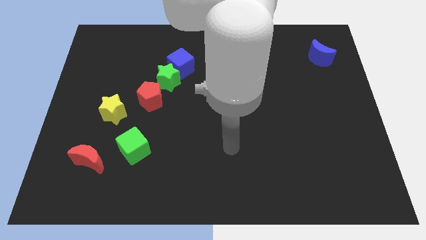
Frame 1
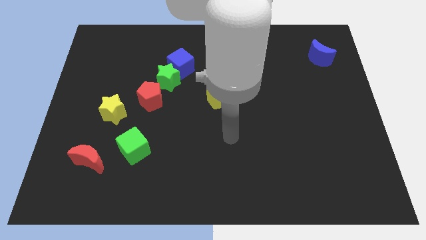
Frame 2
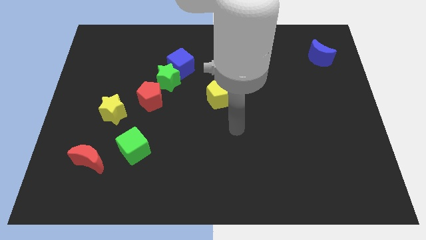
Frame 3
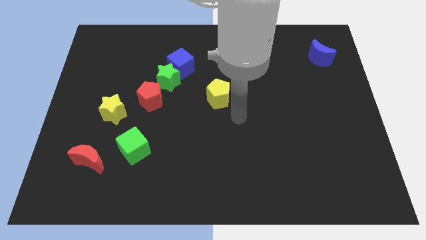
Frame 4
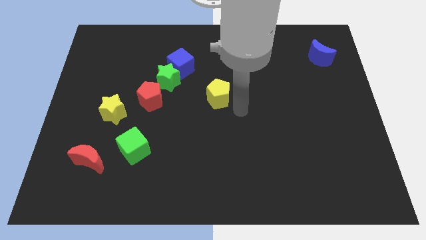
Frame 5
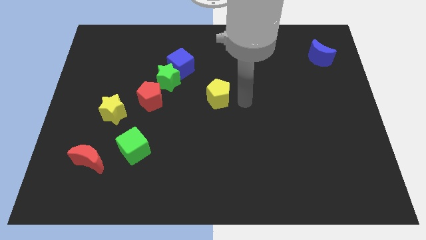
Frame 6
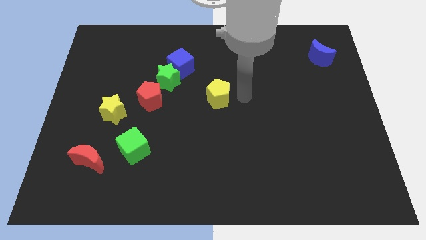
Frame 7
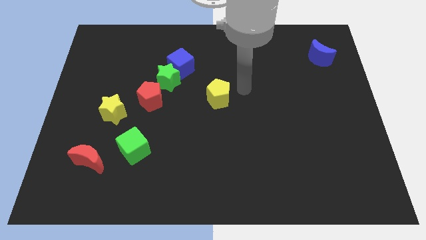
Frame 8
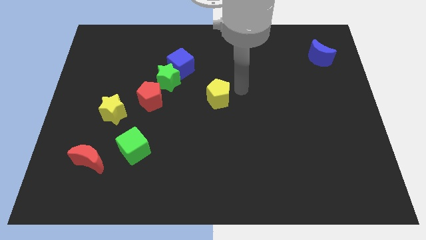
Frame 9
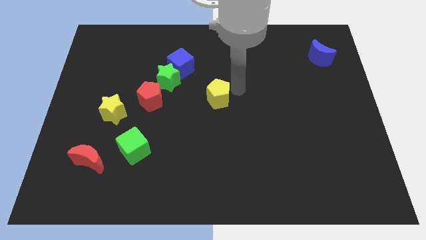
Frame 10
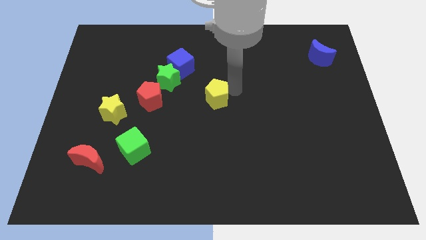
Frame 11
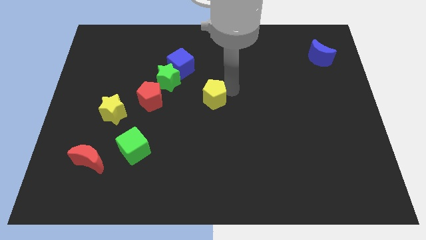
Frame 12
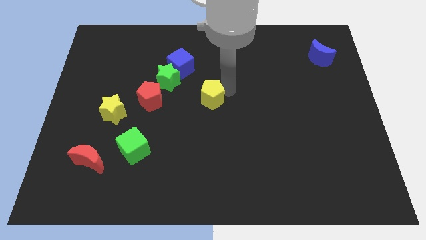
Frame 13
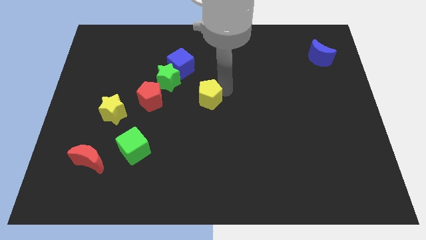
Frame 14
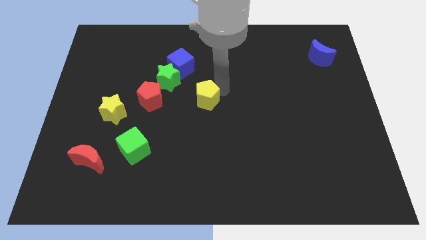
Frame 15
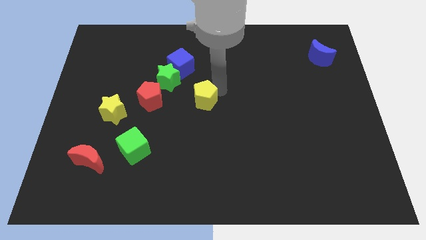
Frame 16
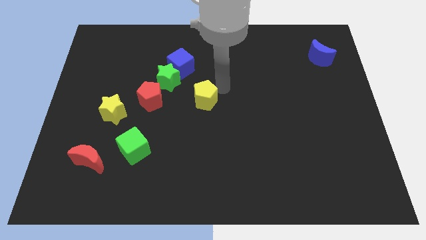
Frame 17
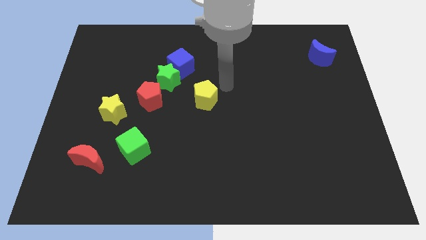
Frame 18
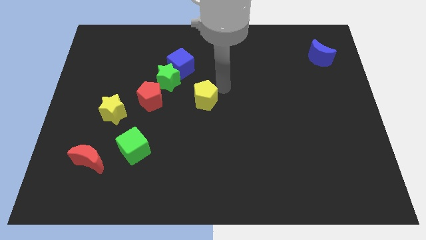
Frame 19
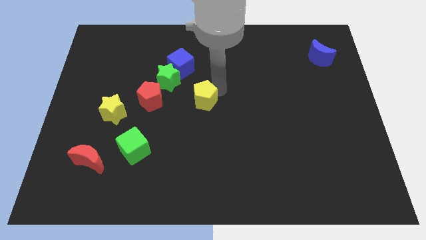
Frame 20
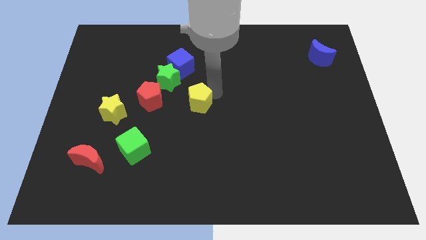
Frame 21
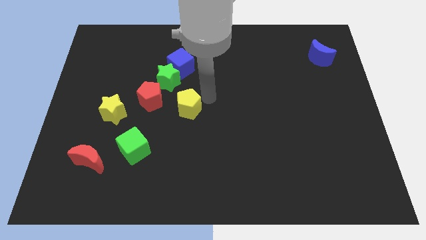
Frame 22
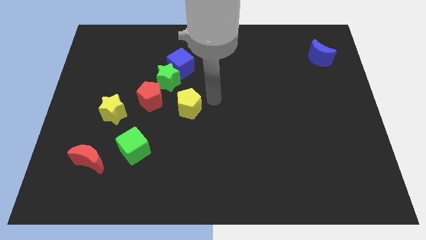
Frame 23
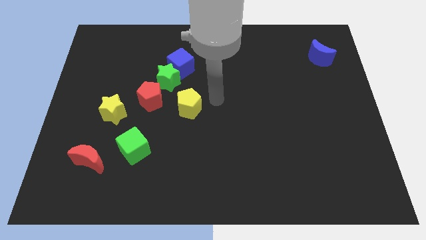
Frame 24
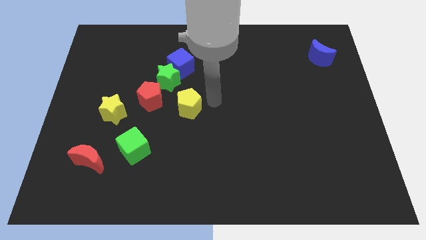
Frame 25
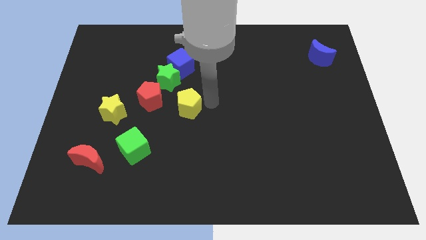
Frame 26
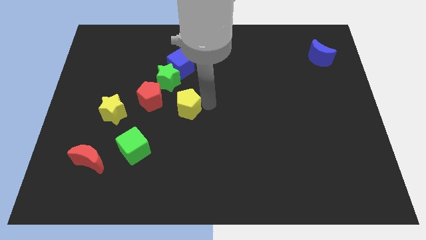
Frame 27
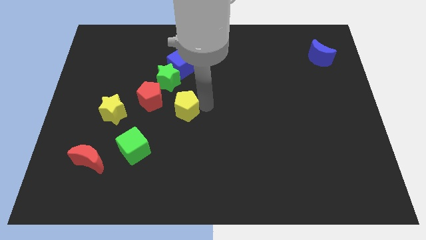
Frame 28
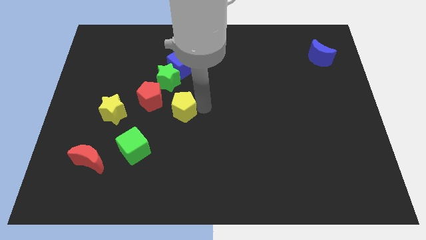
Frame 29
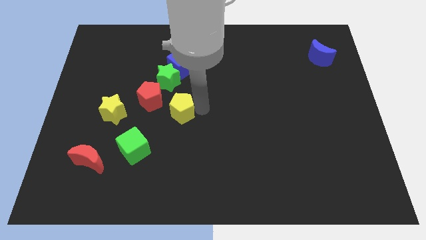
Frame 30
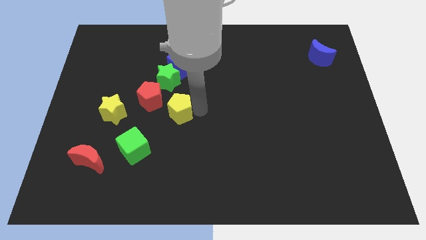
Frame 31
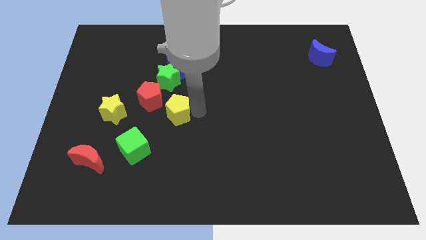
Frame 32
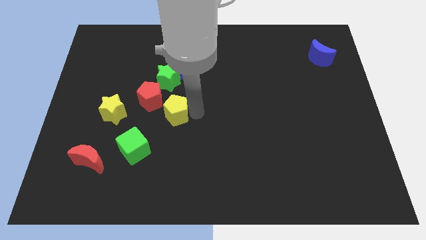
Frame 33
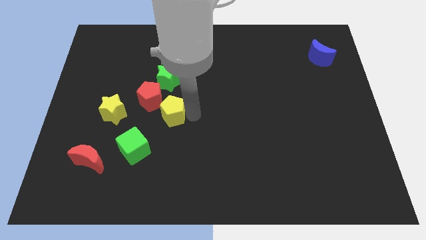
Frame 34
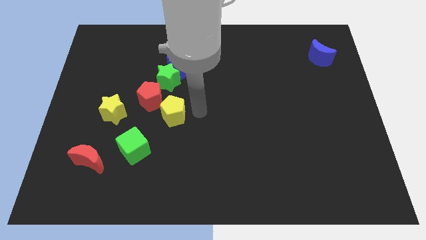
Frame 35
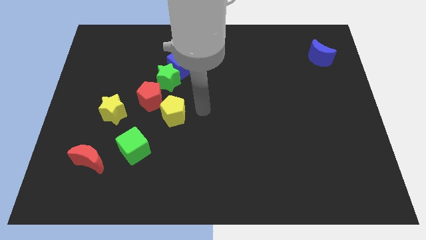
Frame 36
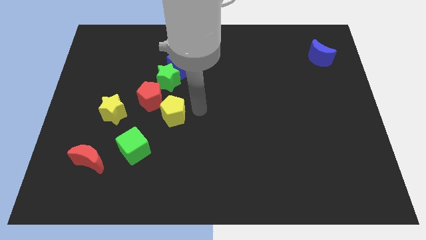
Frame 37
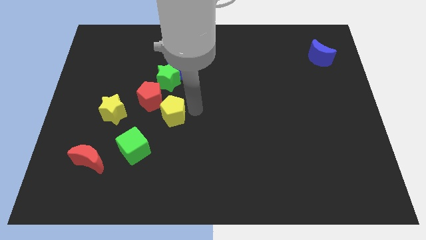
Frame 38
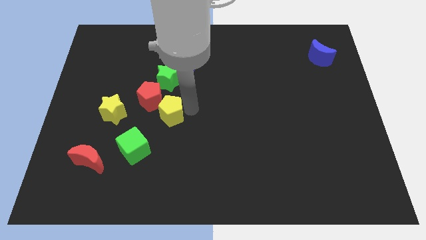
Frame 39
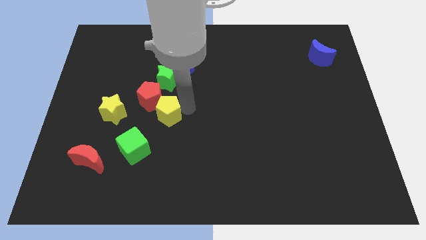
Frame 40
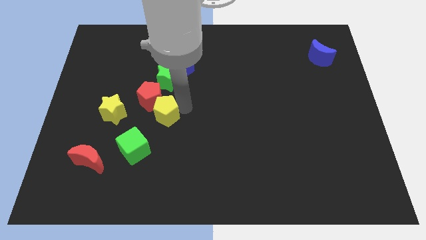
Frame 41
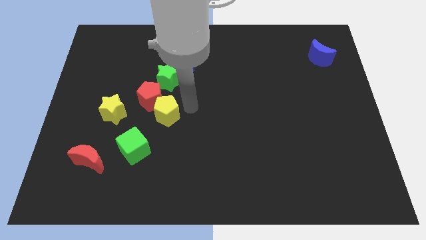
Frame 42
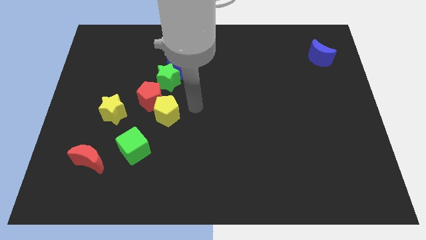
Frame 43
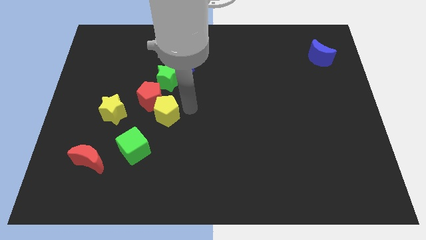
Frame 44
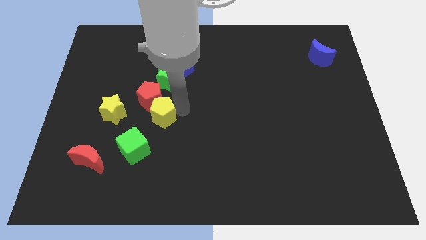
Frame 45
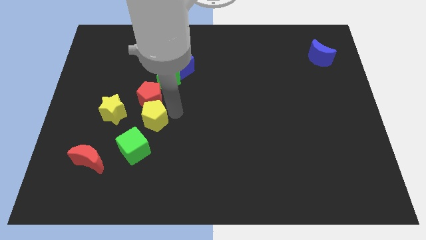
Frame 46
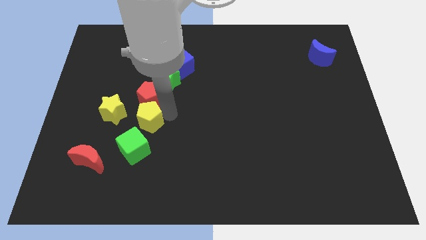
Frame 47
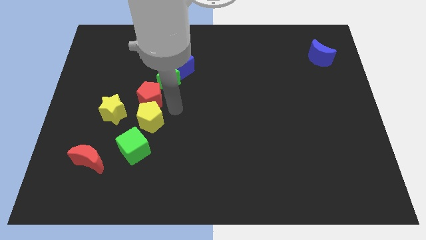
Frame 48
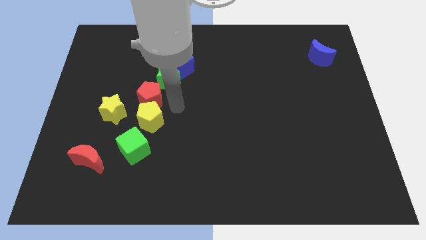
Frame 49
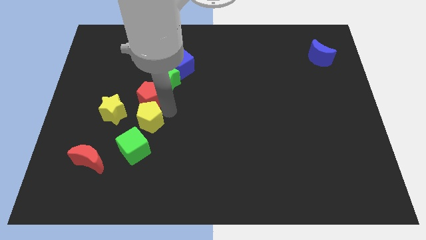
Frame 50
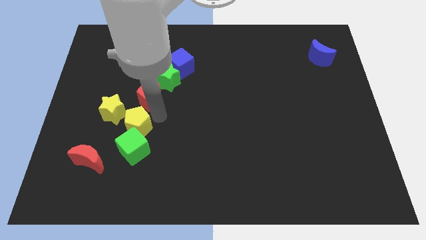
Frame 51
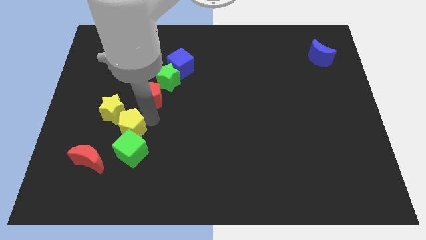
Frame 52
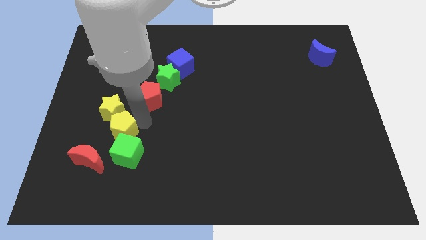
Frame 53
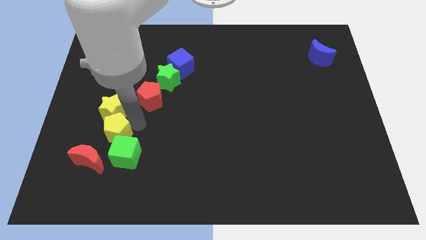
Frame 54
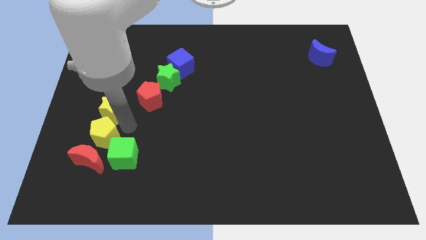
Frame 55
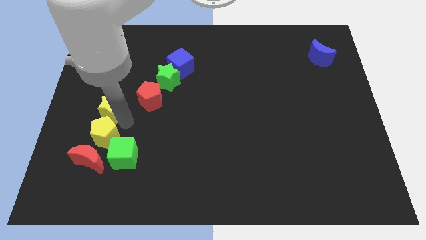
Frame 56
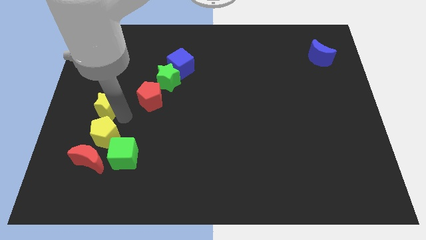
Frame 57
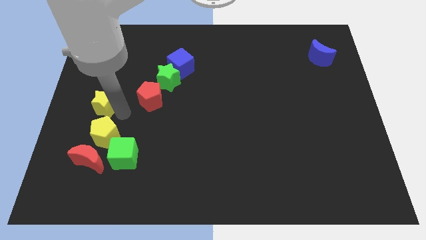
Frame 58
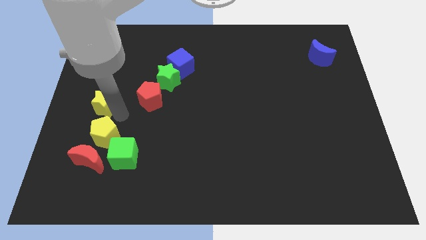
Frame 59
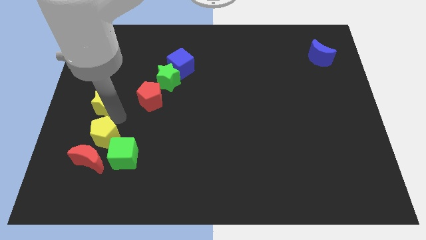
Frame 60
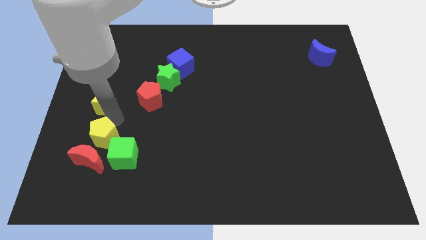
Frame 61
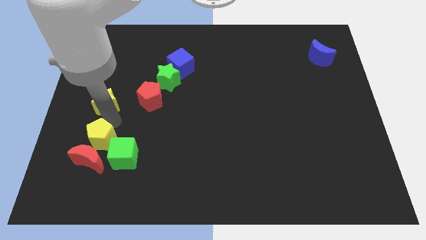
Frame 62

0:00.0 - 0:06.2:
move the yellow pentagon towards the red moon
